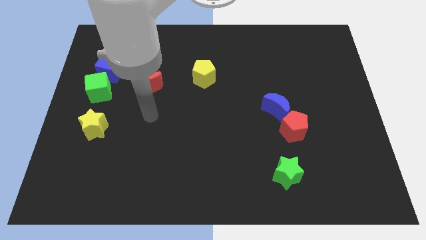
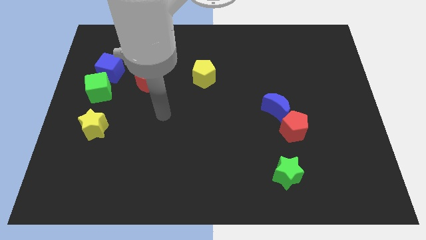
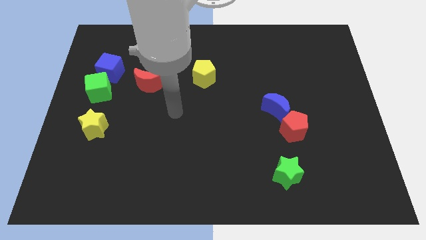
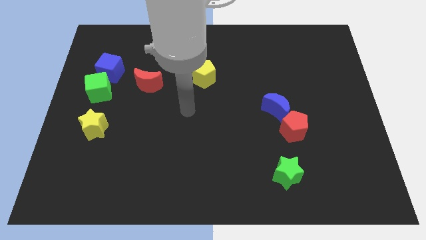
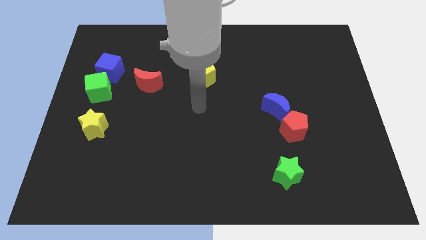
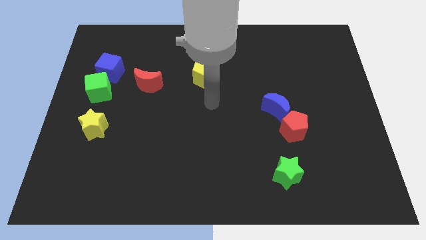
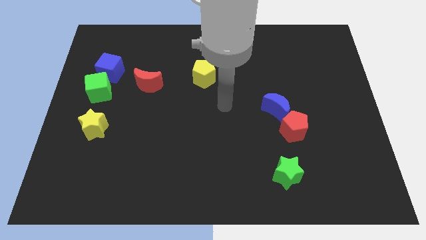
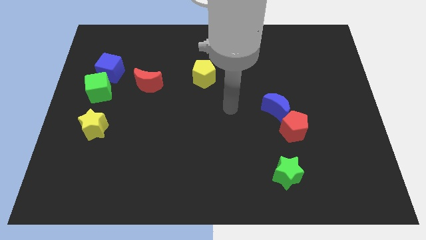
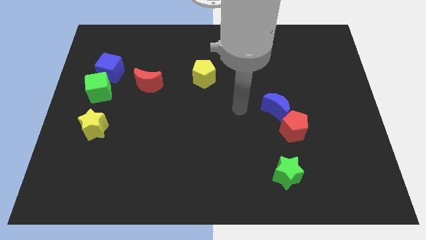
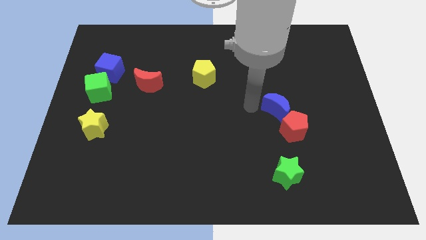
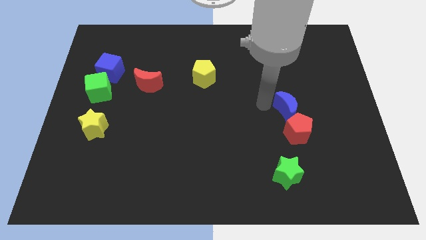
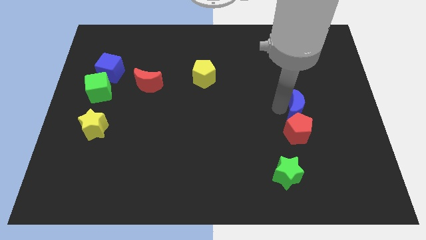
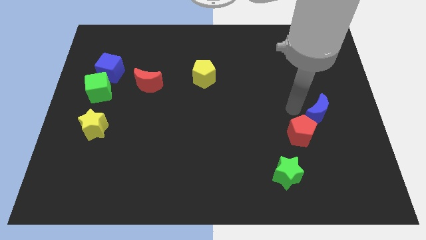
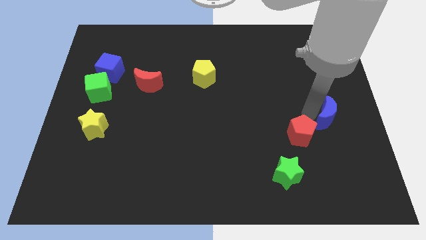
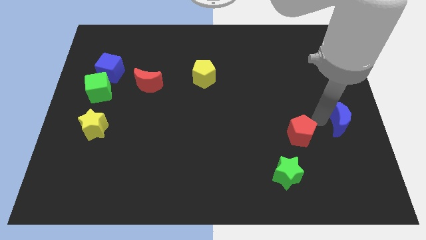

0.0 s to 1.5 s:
pull the red pentagon apart from the blue moon
